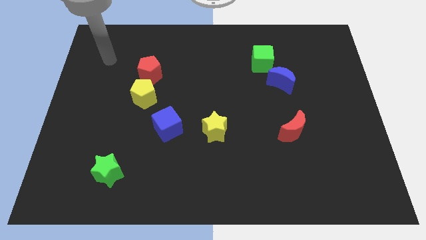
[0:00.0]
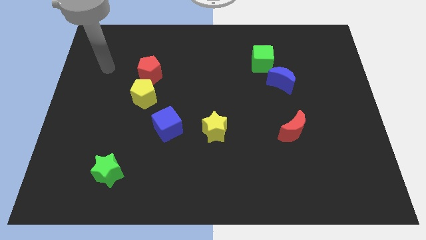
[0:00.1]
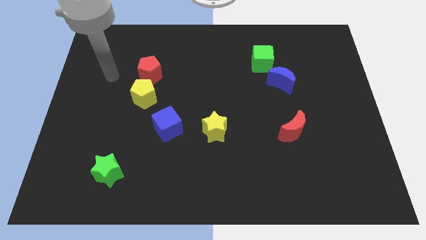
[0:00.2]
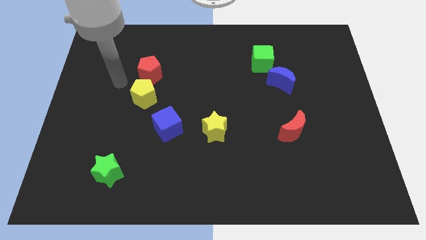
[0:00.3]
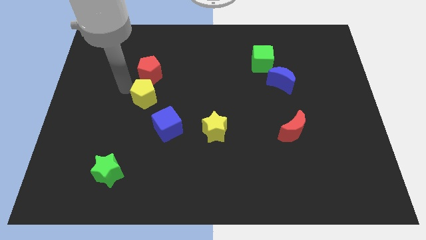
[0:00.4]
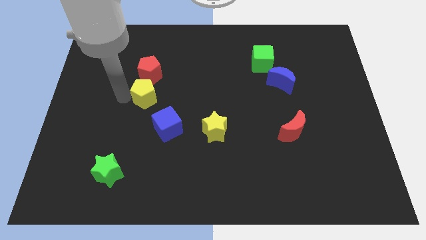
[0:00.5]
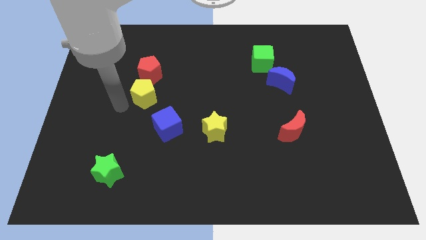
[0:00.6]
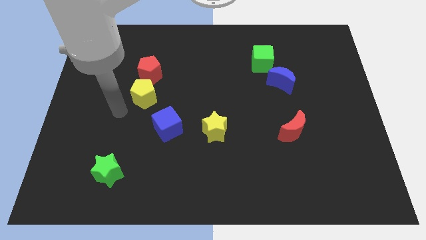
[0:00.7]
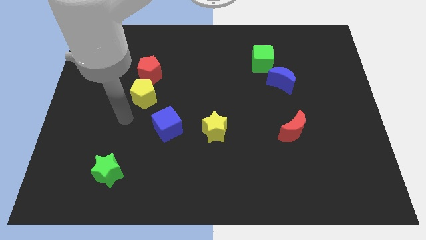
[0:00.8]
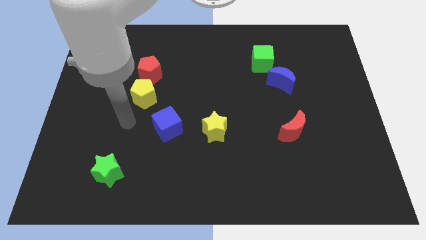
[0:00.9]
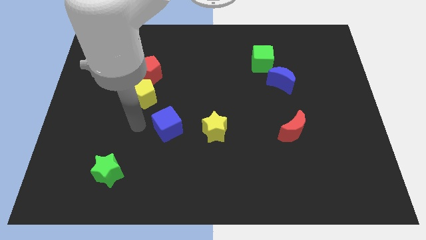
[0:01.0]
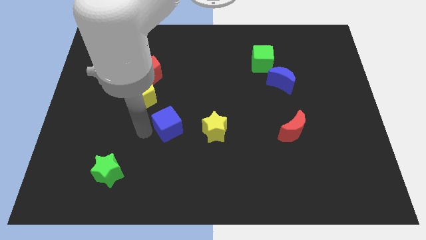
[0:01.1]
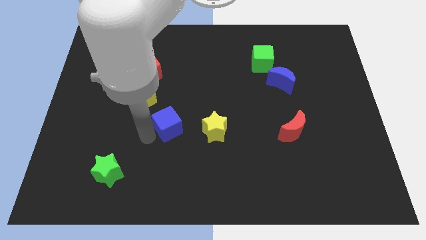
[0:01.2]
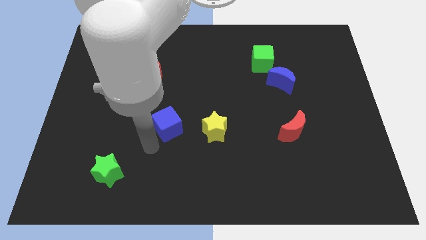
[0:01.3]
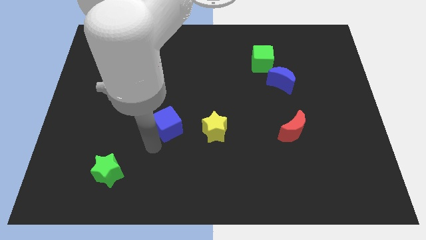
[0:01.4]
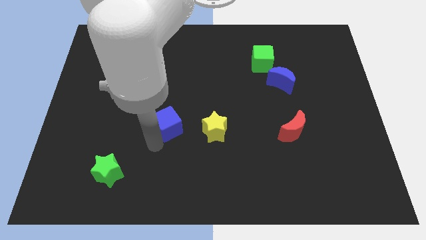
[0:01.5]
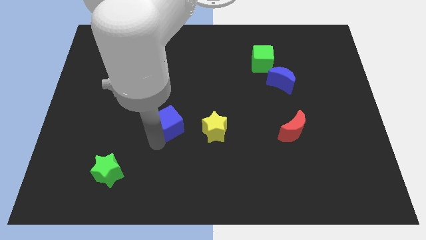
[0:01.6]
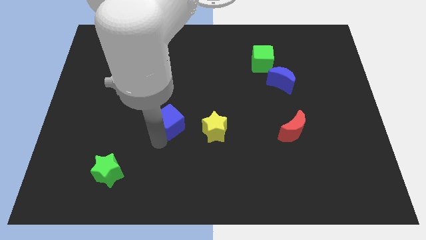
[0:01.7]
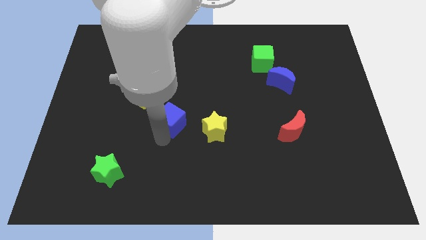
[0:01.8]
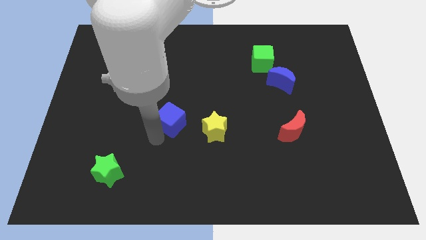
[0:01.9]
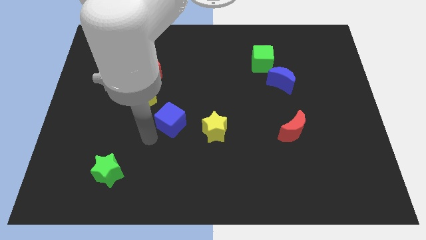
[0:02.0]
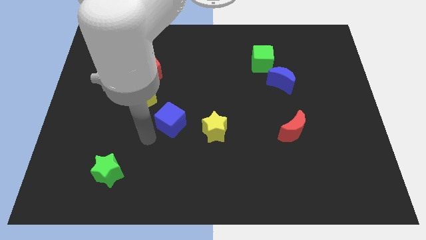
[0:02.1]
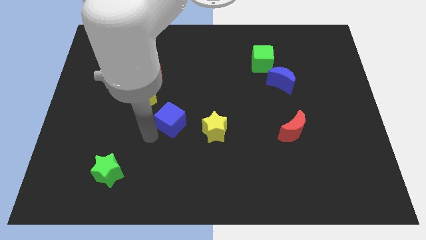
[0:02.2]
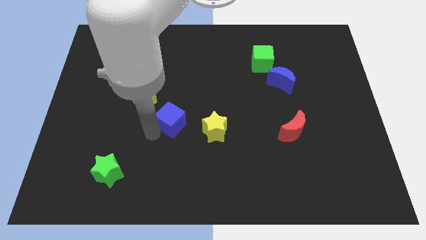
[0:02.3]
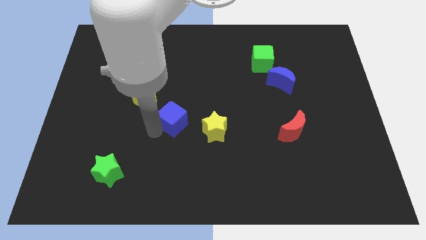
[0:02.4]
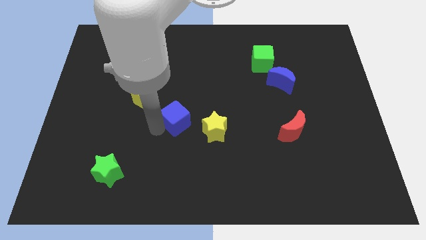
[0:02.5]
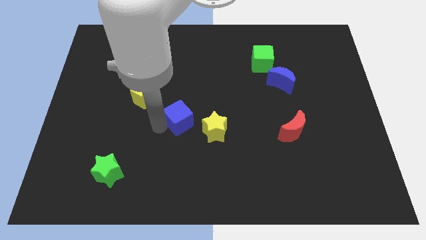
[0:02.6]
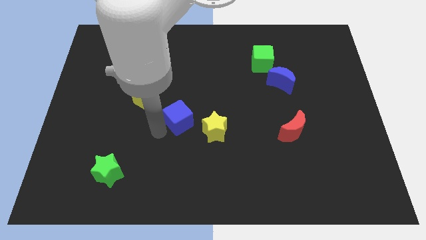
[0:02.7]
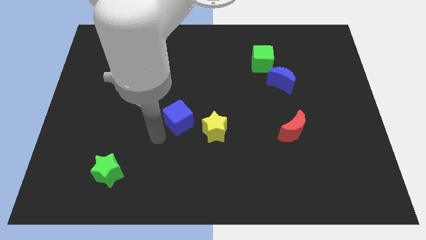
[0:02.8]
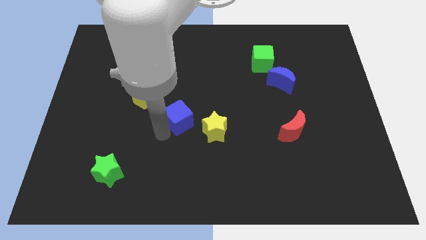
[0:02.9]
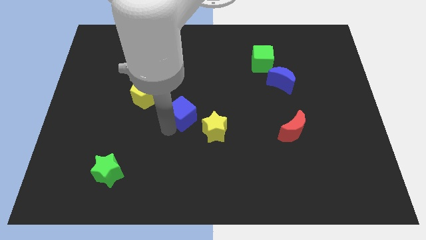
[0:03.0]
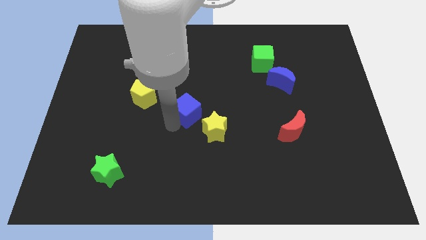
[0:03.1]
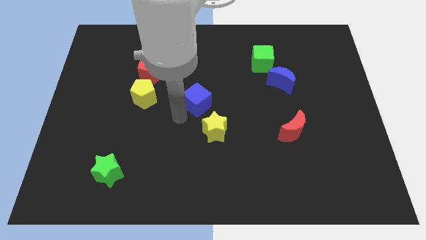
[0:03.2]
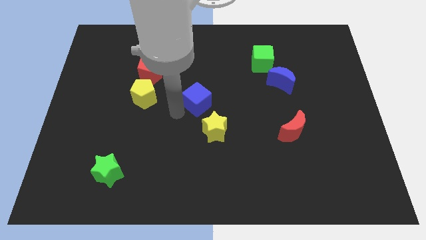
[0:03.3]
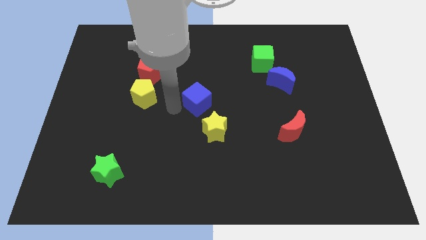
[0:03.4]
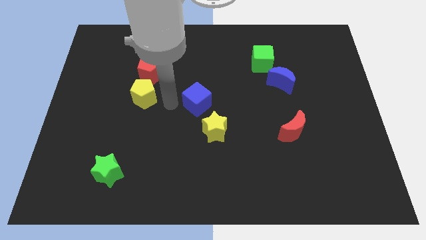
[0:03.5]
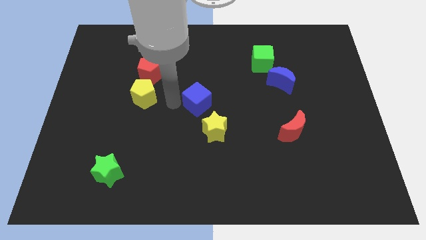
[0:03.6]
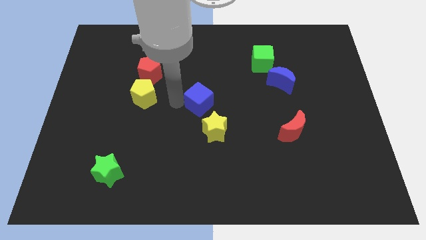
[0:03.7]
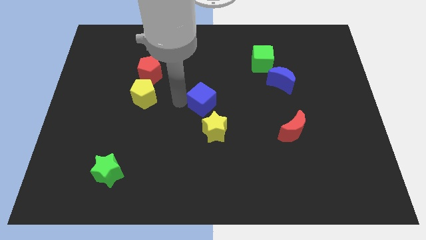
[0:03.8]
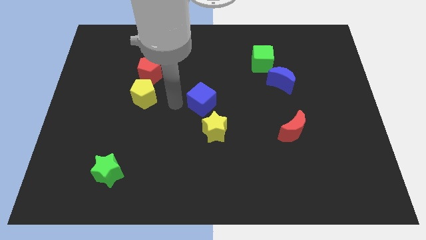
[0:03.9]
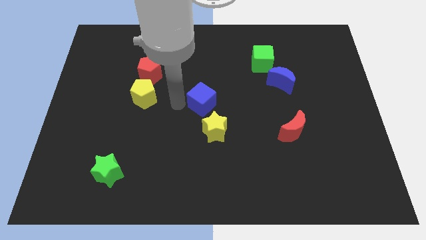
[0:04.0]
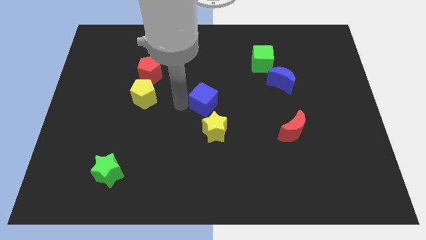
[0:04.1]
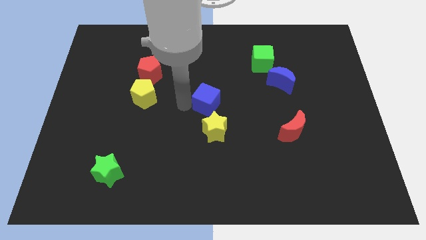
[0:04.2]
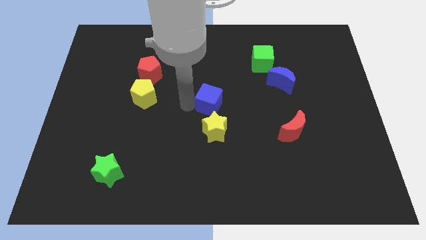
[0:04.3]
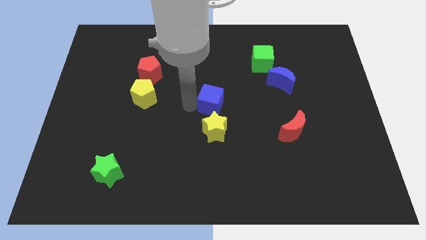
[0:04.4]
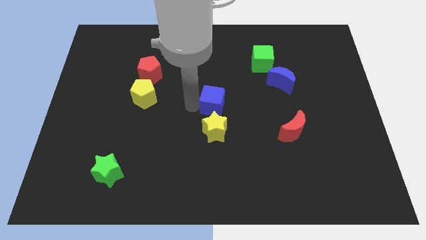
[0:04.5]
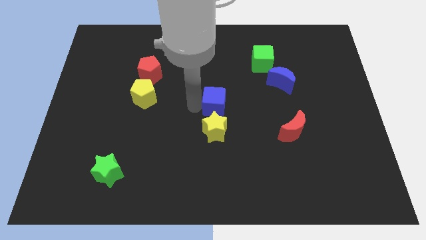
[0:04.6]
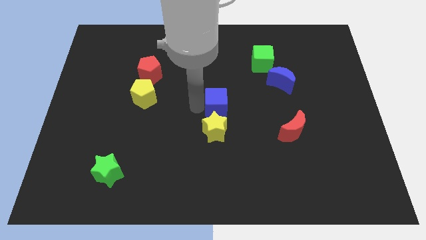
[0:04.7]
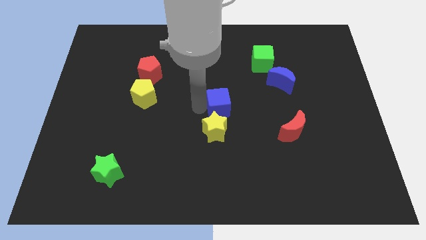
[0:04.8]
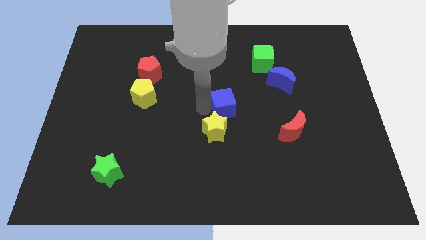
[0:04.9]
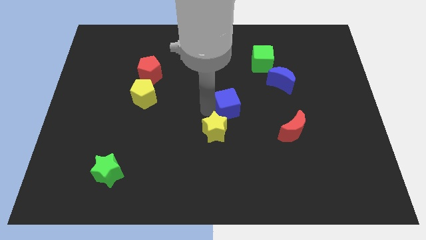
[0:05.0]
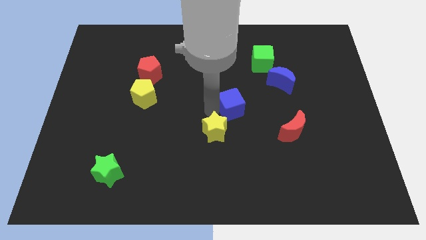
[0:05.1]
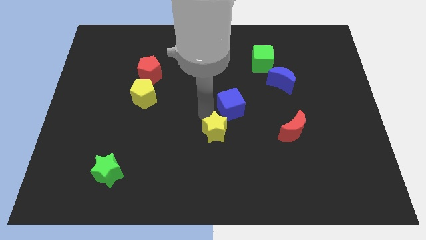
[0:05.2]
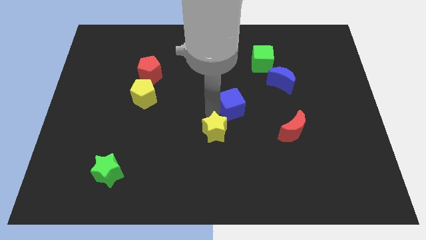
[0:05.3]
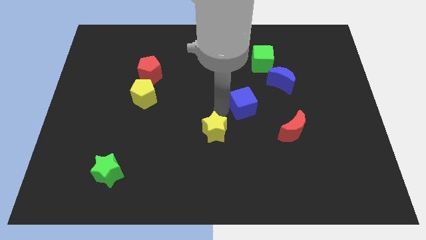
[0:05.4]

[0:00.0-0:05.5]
slide the blue cube to the bottom left of the blue moon
